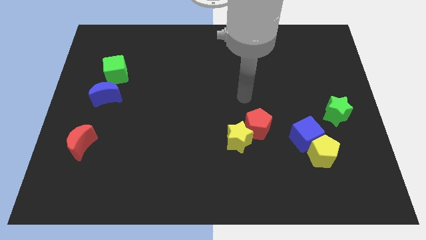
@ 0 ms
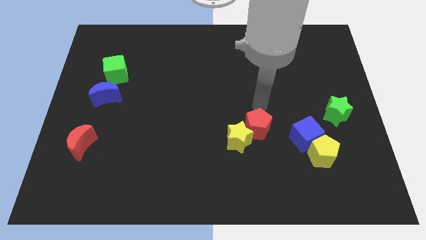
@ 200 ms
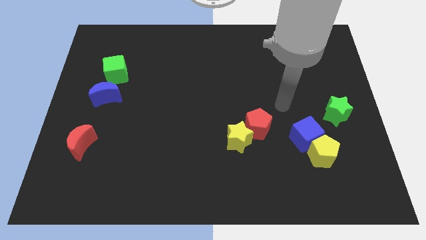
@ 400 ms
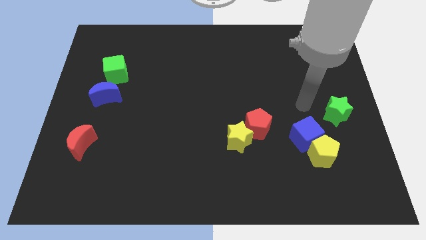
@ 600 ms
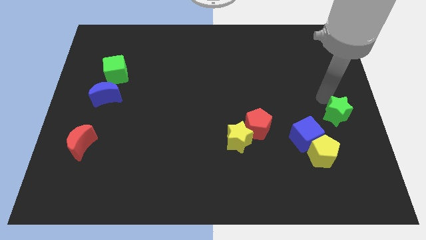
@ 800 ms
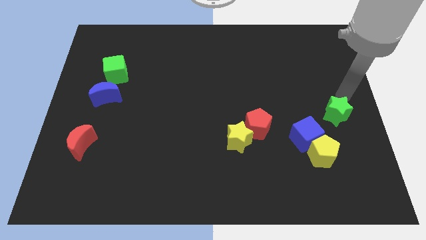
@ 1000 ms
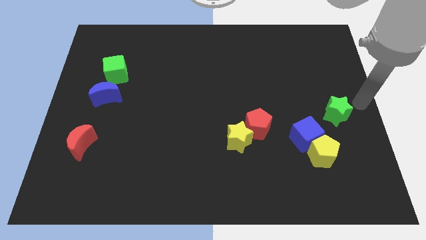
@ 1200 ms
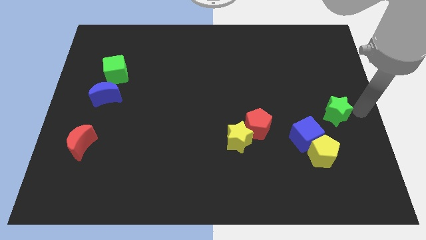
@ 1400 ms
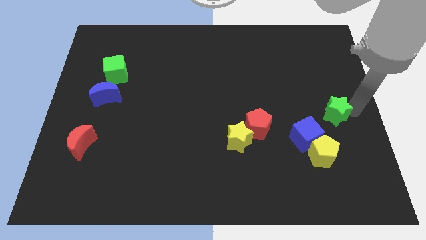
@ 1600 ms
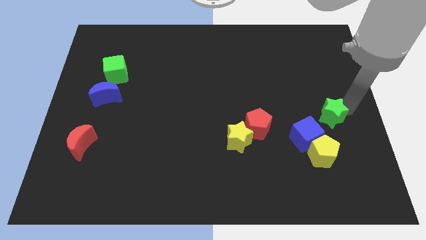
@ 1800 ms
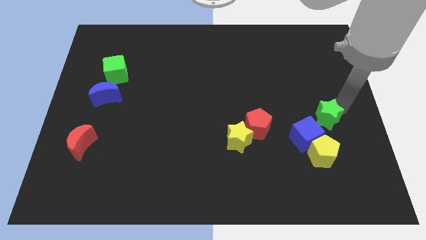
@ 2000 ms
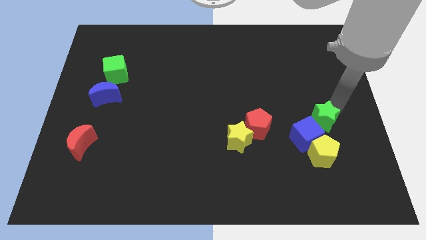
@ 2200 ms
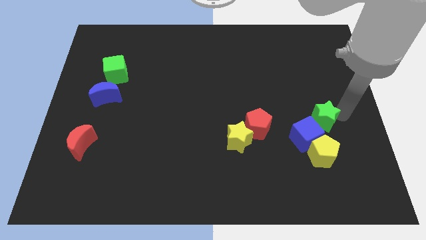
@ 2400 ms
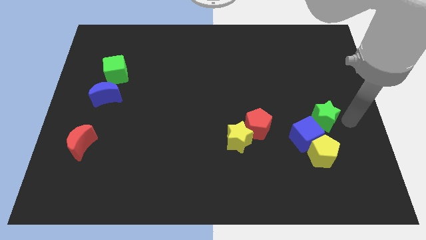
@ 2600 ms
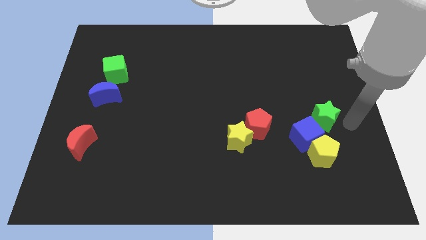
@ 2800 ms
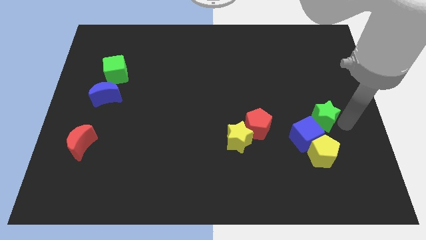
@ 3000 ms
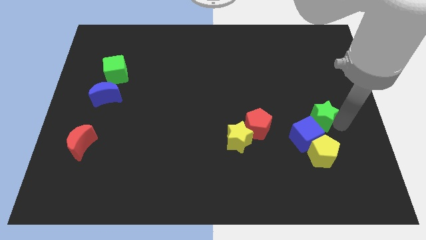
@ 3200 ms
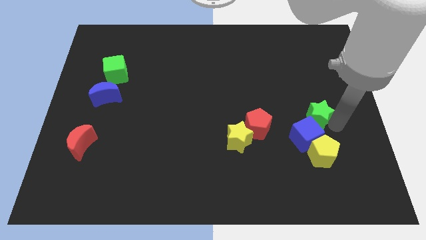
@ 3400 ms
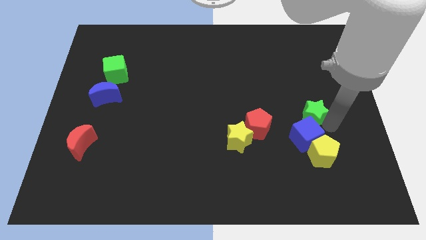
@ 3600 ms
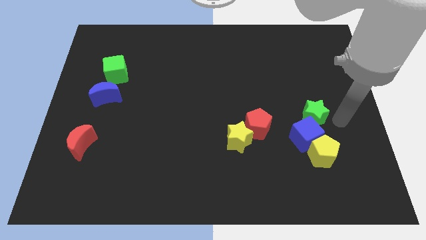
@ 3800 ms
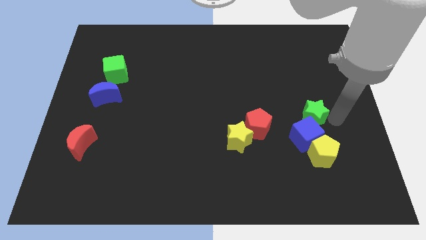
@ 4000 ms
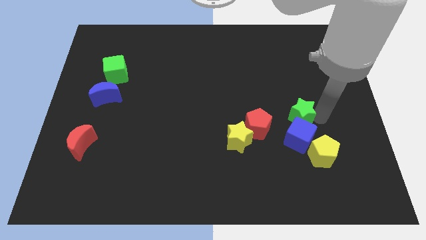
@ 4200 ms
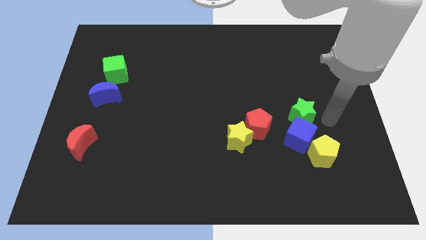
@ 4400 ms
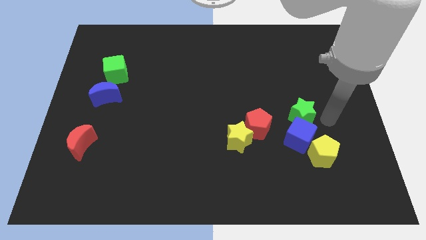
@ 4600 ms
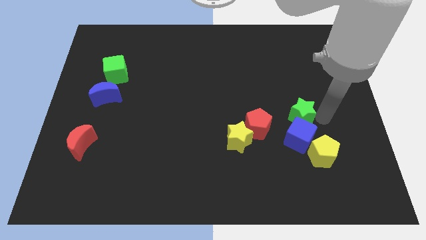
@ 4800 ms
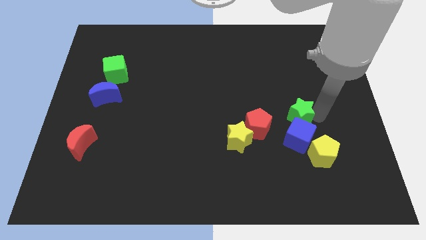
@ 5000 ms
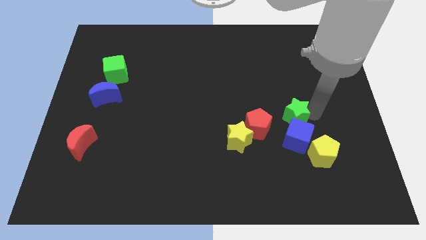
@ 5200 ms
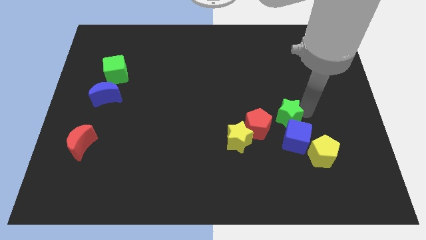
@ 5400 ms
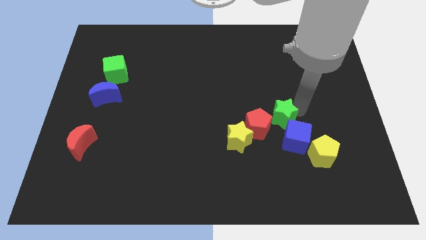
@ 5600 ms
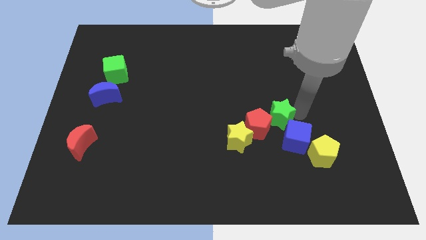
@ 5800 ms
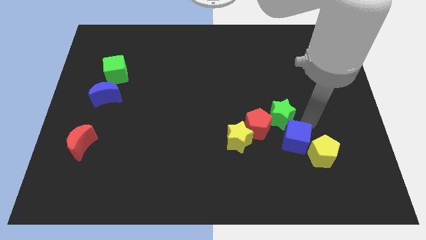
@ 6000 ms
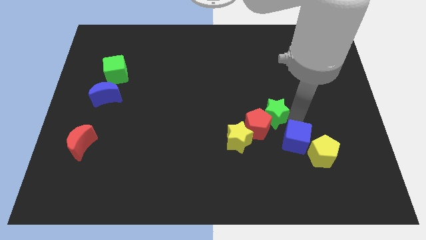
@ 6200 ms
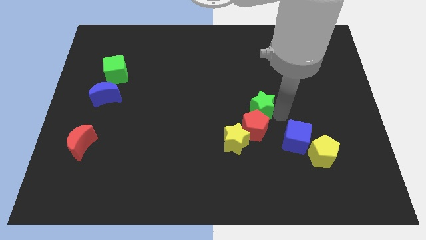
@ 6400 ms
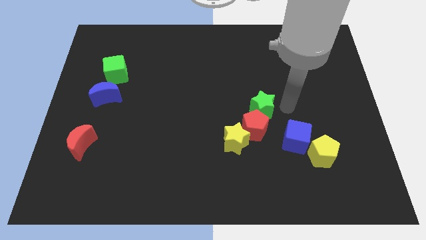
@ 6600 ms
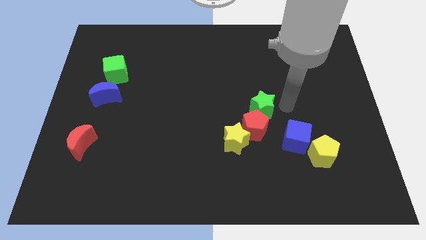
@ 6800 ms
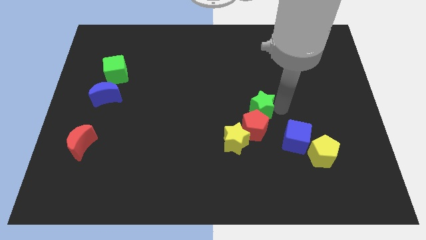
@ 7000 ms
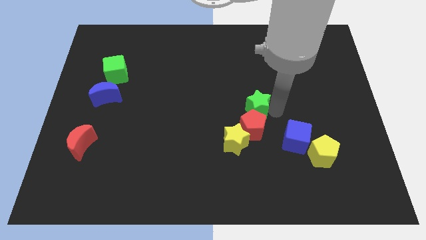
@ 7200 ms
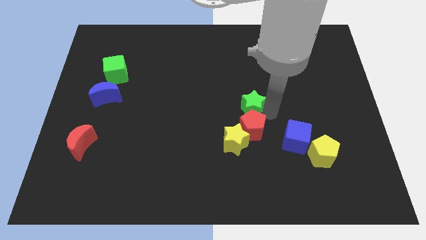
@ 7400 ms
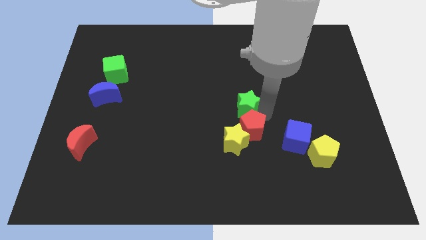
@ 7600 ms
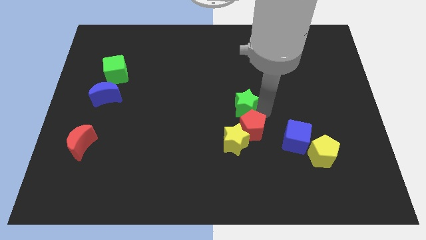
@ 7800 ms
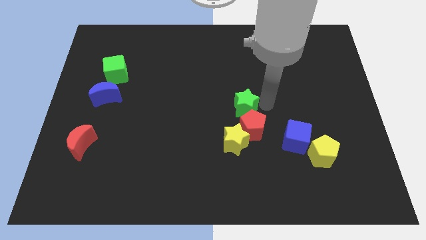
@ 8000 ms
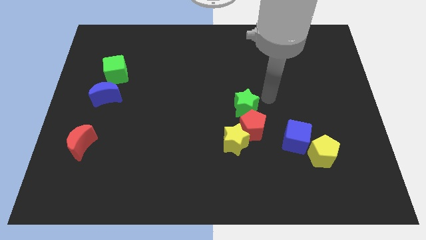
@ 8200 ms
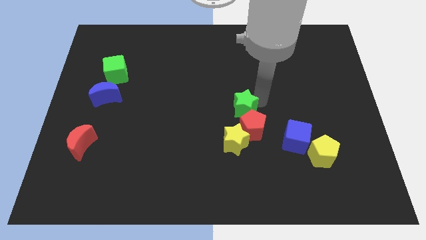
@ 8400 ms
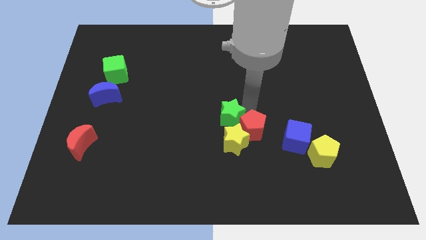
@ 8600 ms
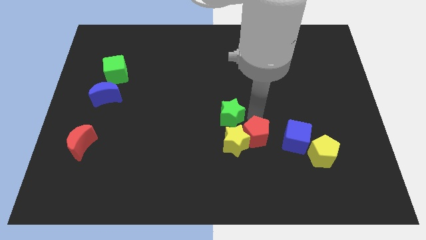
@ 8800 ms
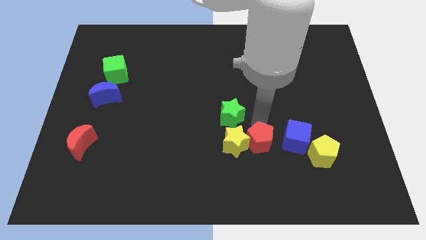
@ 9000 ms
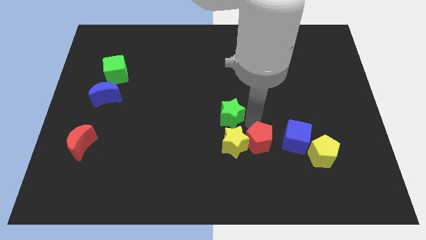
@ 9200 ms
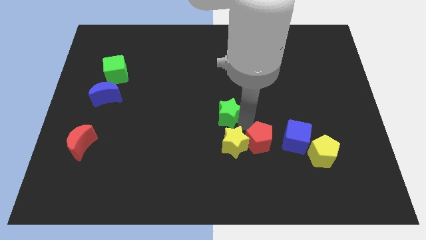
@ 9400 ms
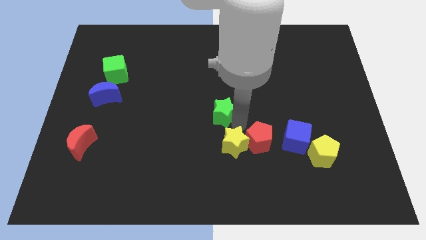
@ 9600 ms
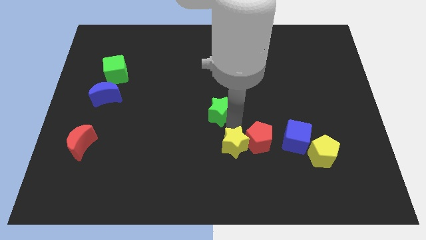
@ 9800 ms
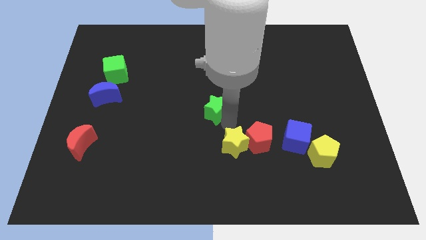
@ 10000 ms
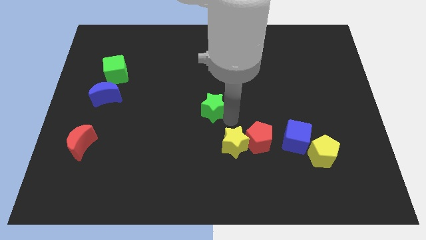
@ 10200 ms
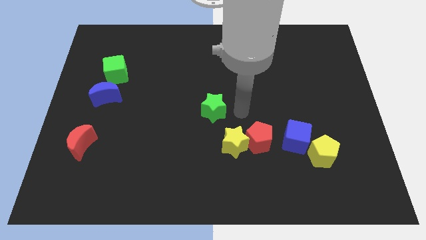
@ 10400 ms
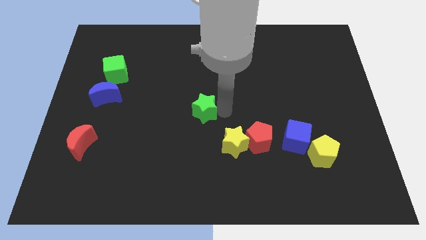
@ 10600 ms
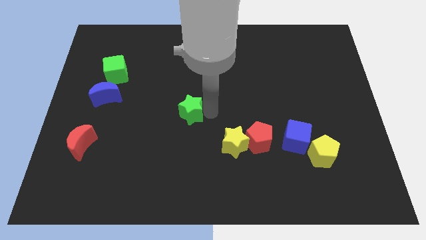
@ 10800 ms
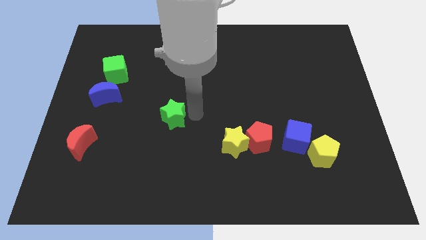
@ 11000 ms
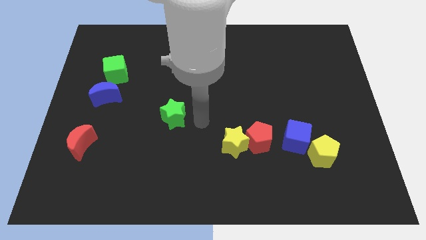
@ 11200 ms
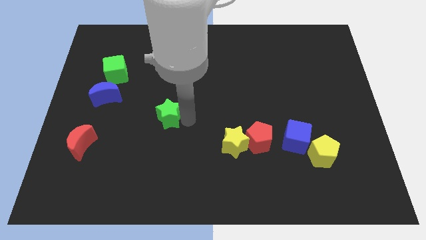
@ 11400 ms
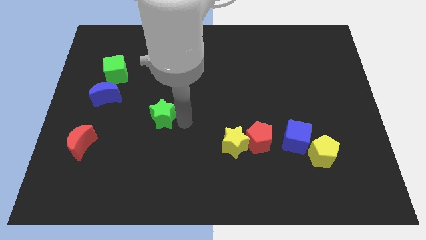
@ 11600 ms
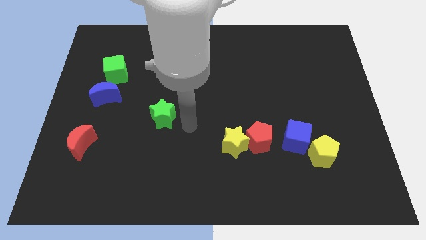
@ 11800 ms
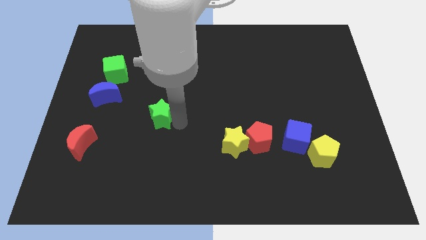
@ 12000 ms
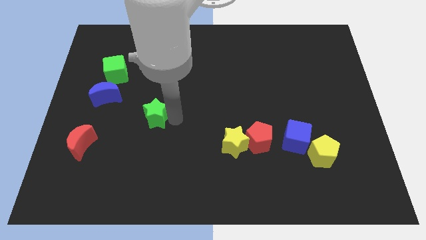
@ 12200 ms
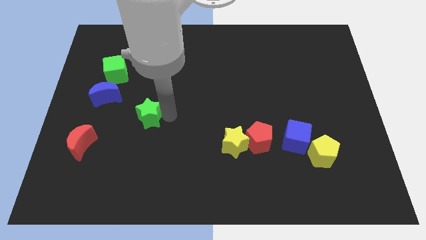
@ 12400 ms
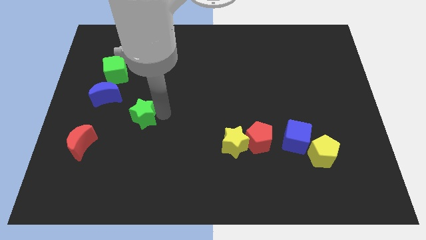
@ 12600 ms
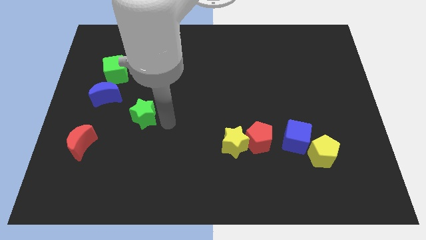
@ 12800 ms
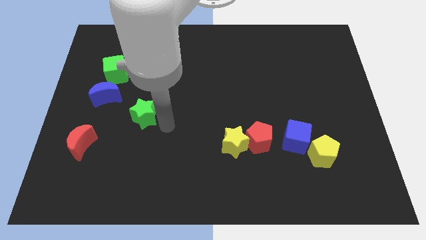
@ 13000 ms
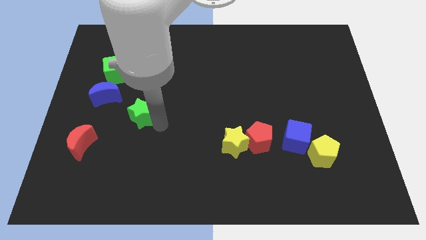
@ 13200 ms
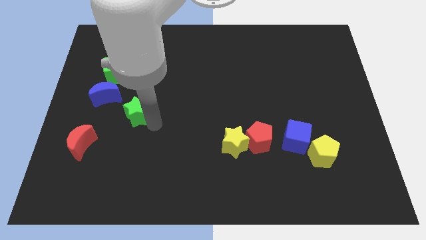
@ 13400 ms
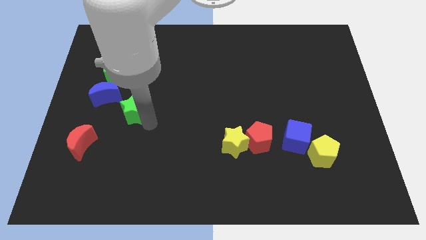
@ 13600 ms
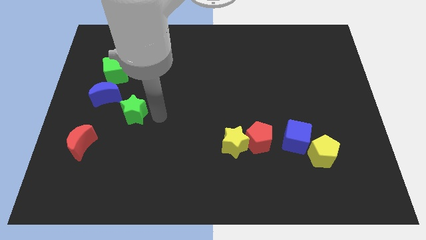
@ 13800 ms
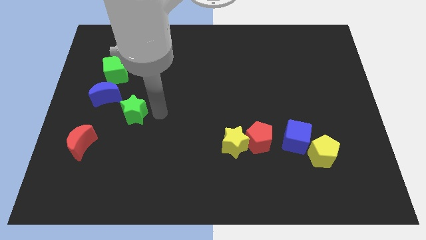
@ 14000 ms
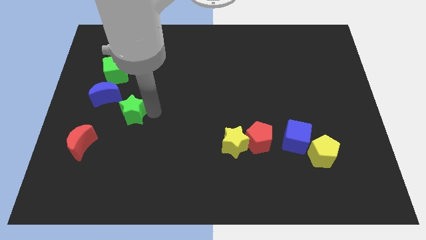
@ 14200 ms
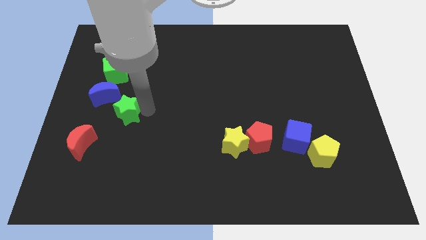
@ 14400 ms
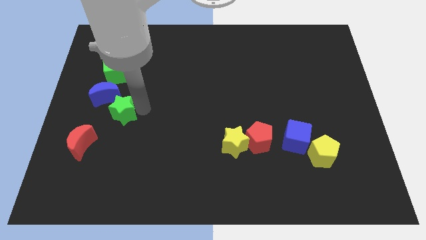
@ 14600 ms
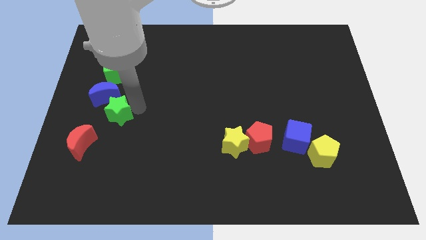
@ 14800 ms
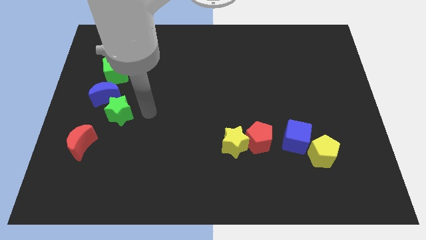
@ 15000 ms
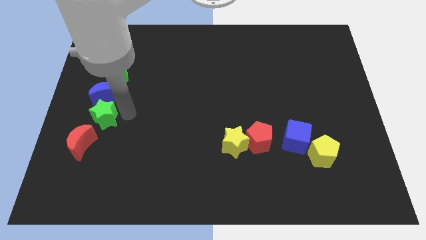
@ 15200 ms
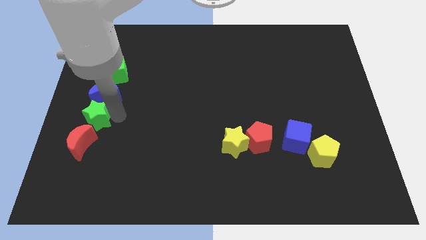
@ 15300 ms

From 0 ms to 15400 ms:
slide the green star to the left side of the board
